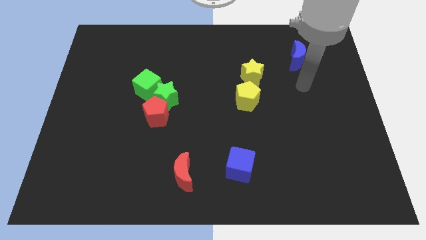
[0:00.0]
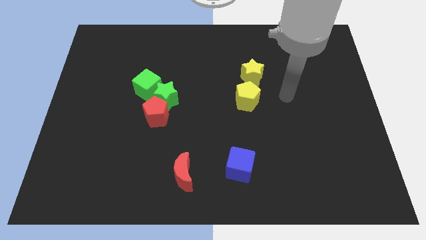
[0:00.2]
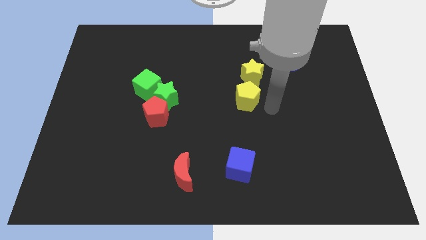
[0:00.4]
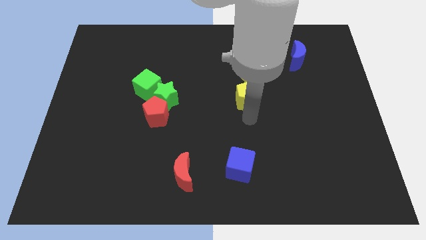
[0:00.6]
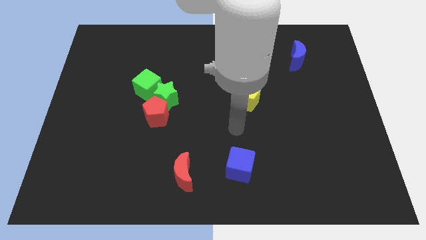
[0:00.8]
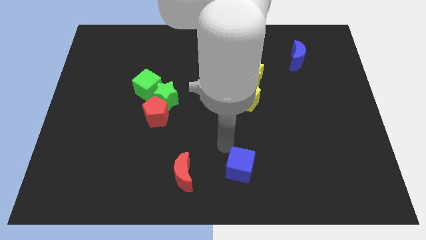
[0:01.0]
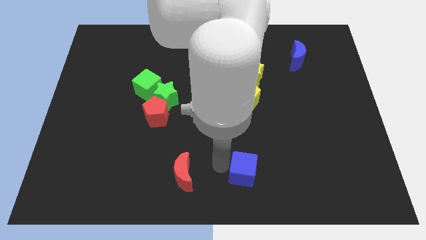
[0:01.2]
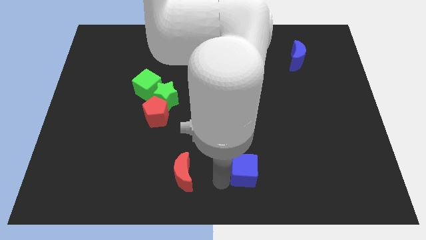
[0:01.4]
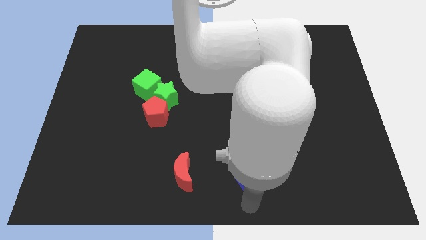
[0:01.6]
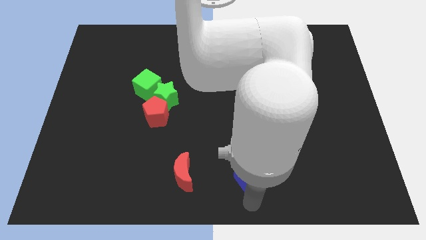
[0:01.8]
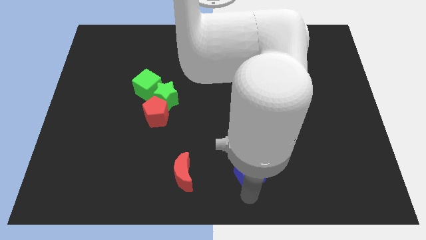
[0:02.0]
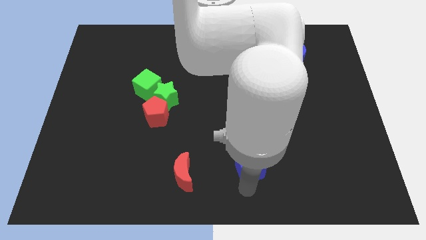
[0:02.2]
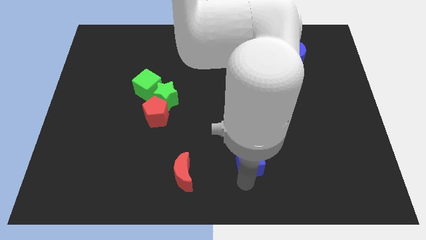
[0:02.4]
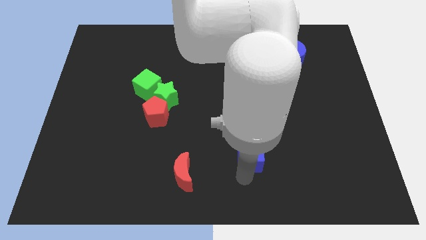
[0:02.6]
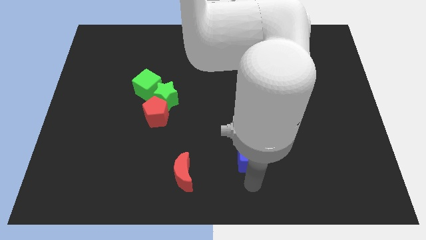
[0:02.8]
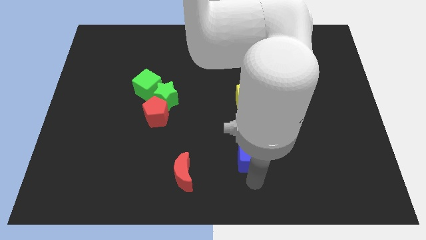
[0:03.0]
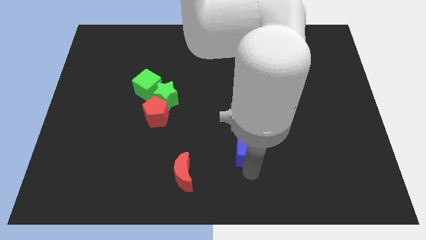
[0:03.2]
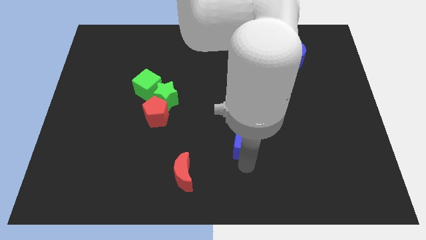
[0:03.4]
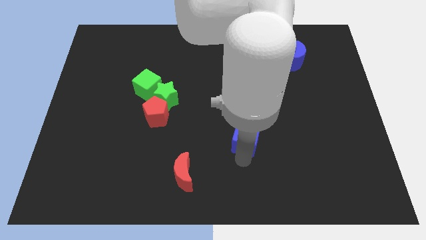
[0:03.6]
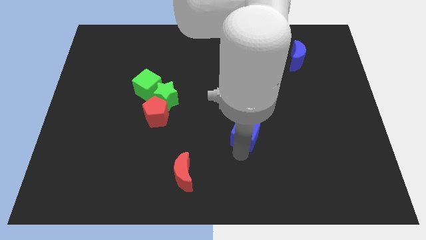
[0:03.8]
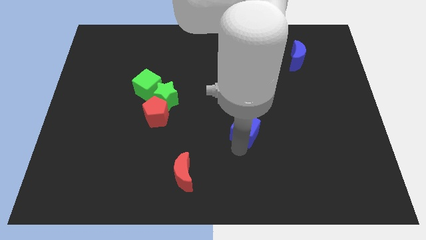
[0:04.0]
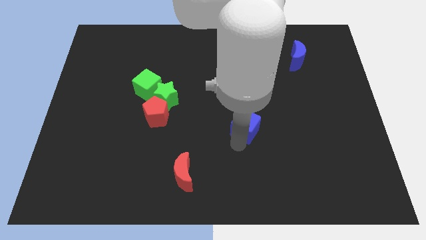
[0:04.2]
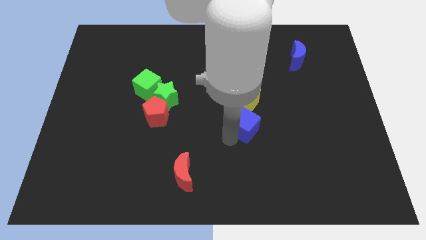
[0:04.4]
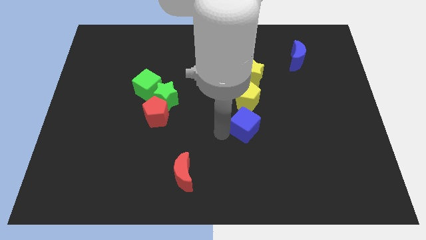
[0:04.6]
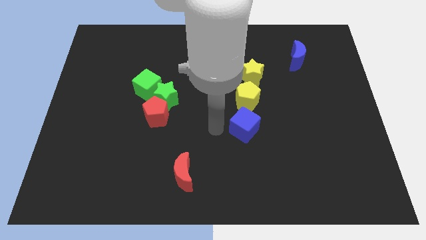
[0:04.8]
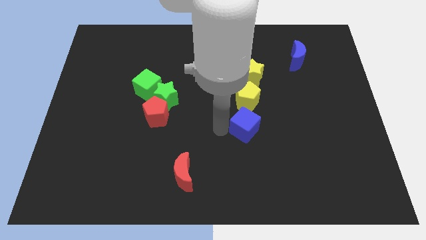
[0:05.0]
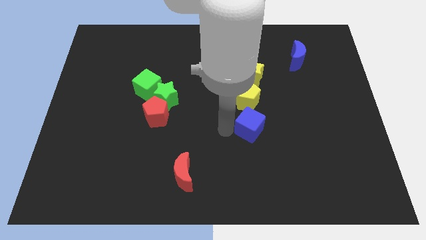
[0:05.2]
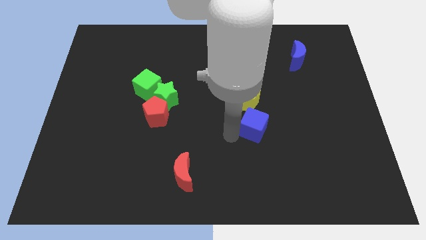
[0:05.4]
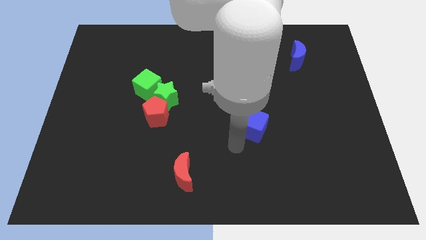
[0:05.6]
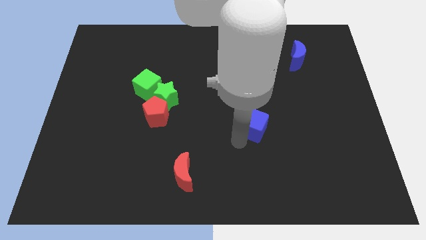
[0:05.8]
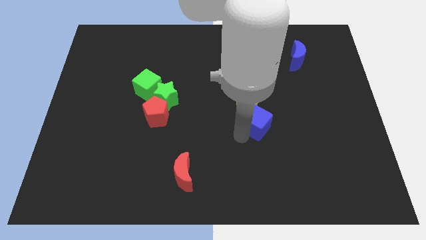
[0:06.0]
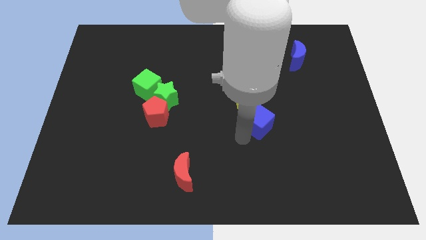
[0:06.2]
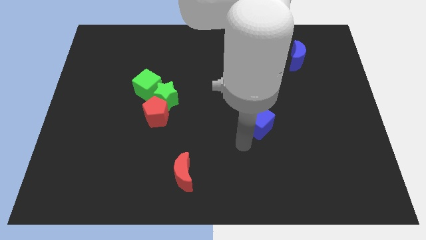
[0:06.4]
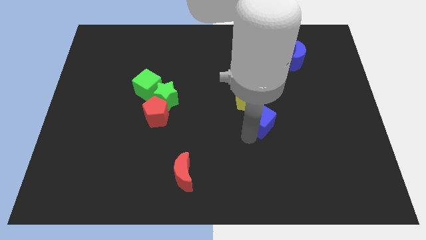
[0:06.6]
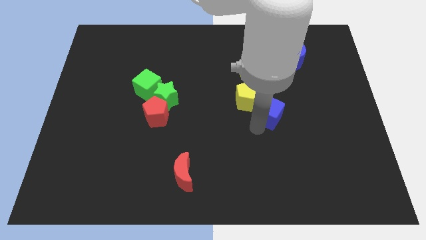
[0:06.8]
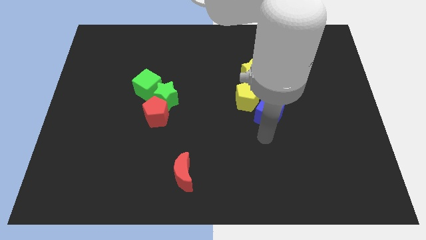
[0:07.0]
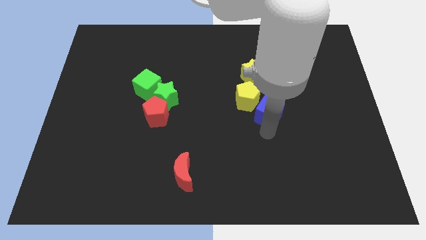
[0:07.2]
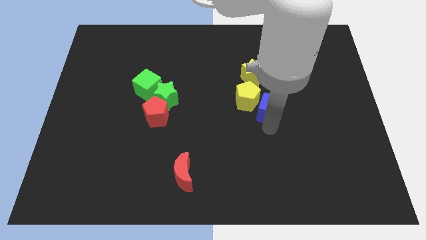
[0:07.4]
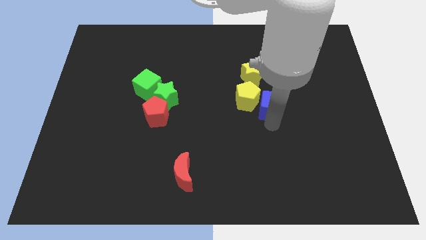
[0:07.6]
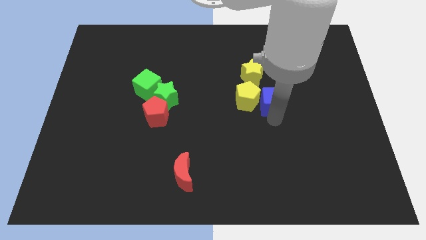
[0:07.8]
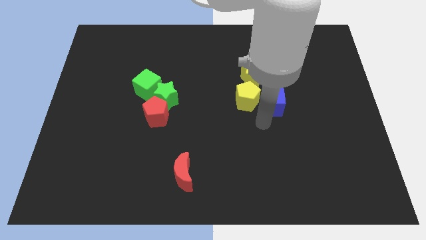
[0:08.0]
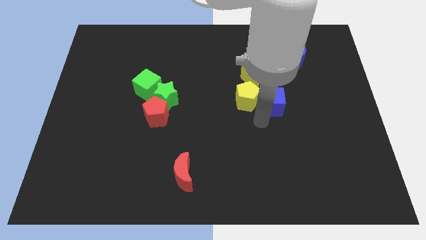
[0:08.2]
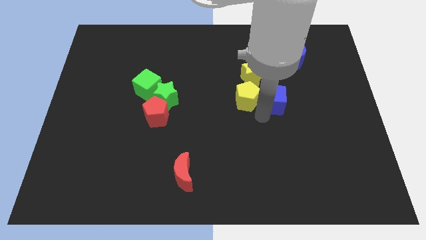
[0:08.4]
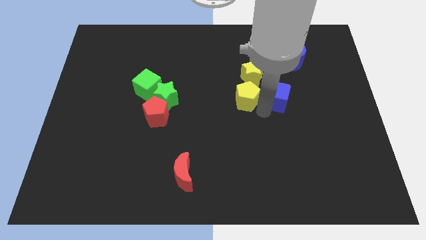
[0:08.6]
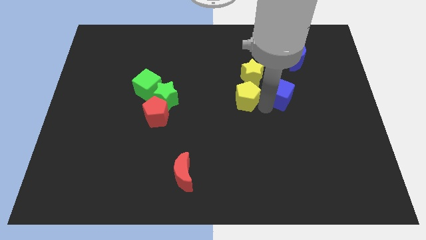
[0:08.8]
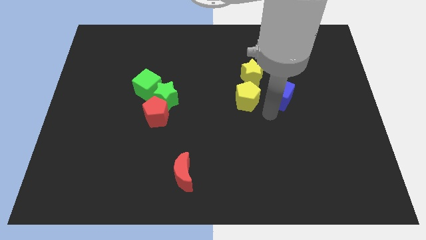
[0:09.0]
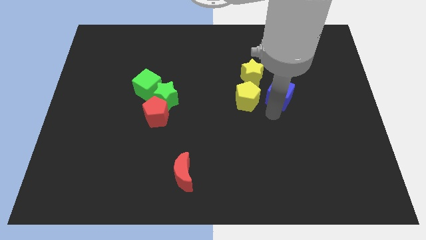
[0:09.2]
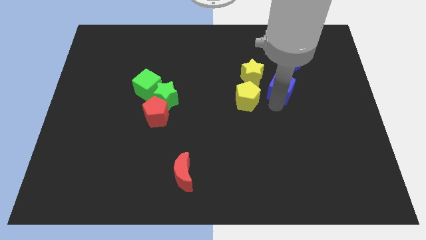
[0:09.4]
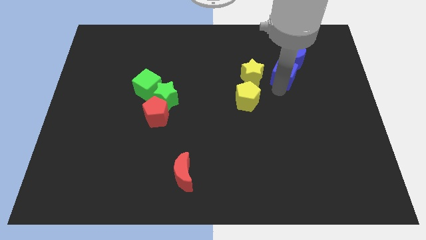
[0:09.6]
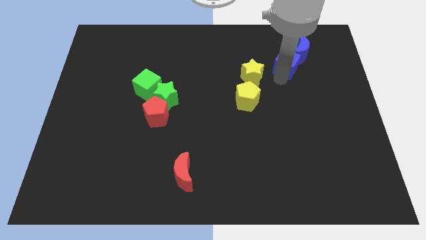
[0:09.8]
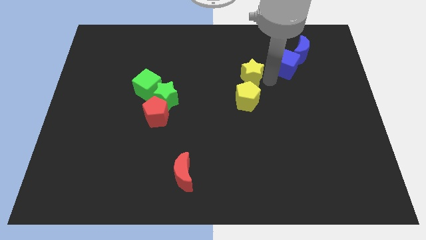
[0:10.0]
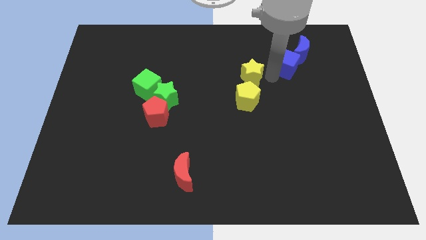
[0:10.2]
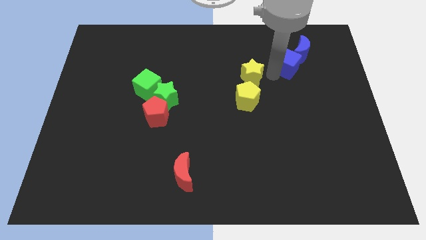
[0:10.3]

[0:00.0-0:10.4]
put the blue cube close to the blue moon

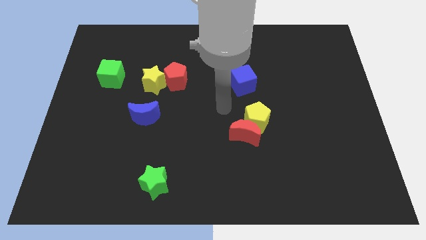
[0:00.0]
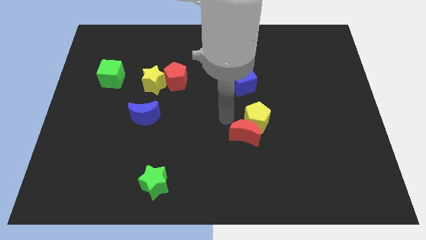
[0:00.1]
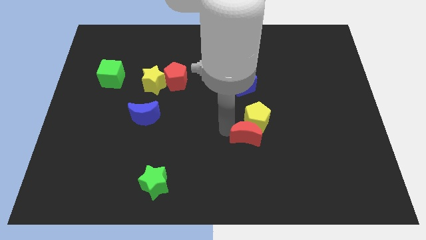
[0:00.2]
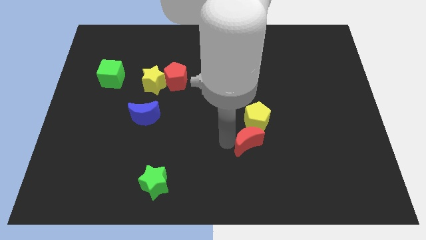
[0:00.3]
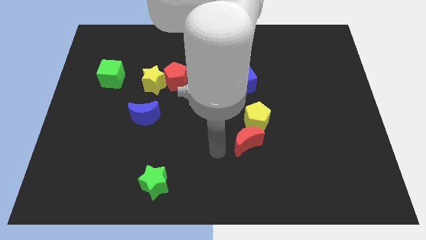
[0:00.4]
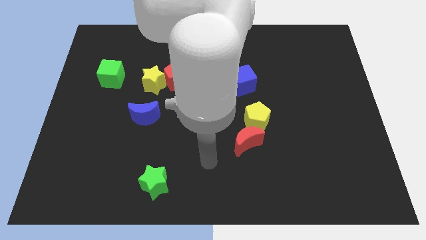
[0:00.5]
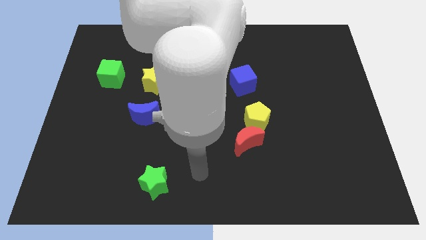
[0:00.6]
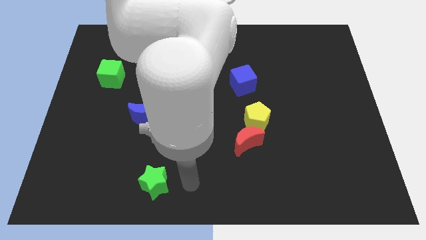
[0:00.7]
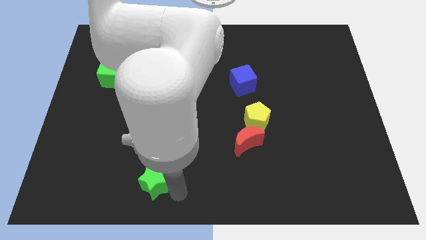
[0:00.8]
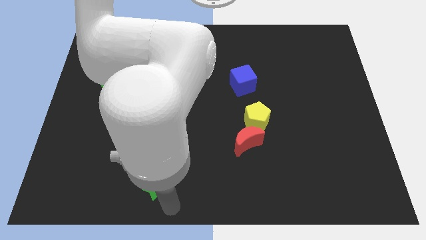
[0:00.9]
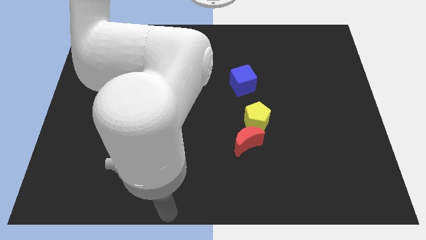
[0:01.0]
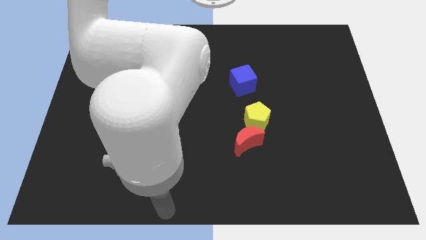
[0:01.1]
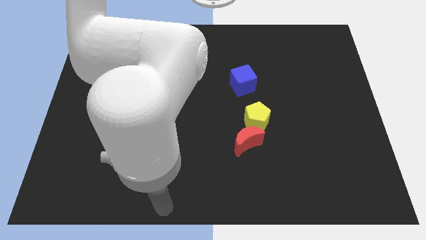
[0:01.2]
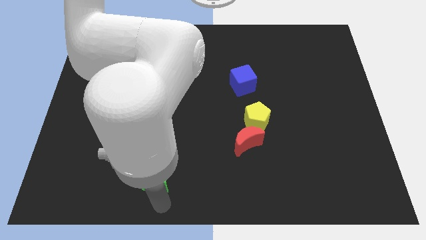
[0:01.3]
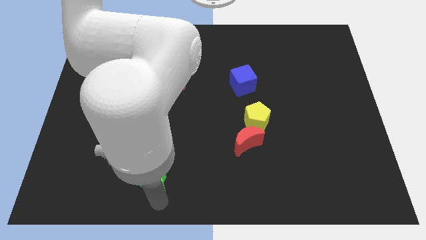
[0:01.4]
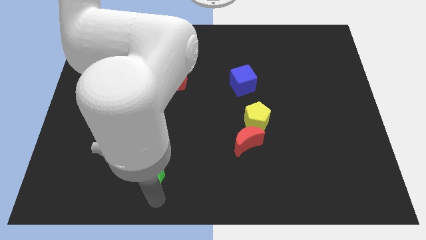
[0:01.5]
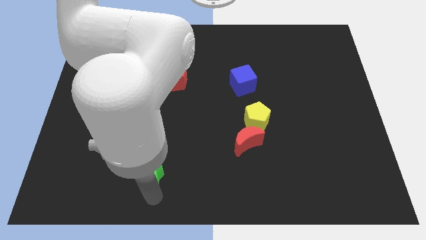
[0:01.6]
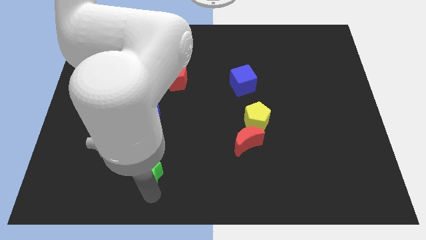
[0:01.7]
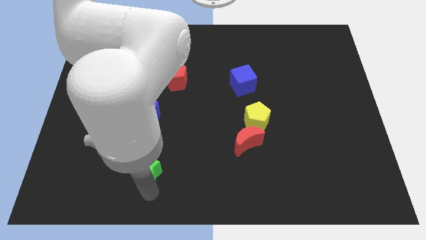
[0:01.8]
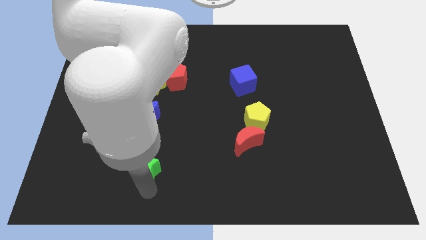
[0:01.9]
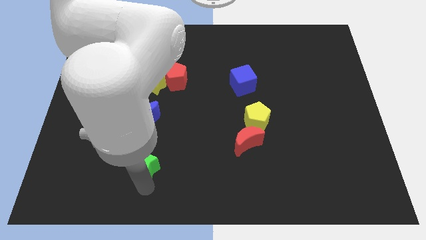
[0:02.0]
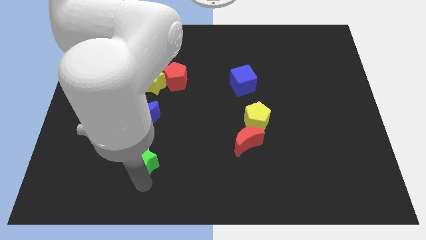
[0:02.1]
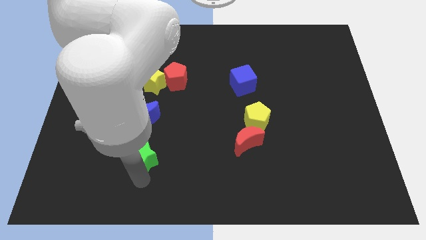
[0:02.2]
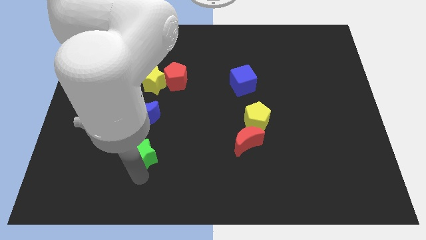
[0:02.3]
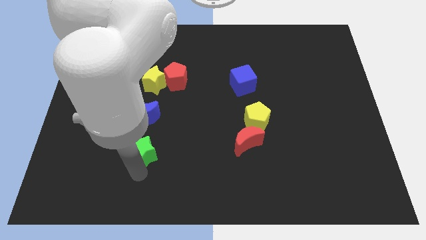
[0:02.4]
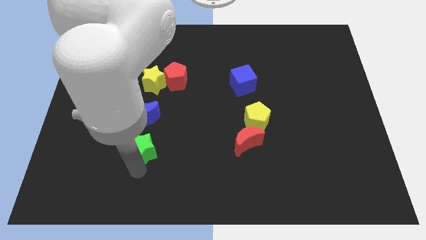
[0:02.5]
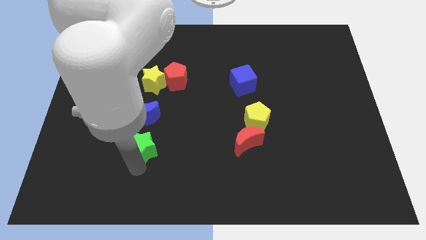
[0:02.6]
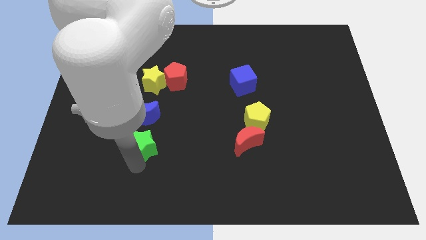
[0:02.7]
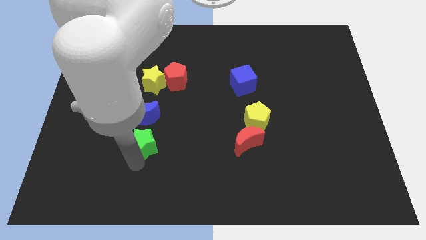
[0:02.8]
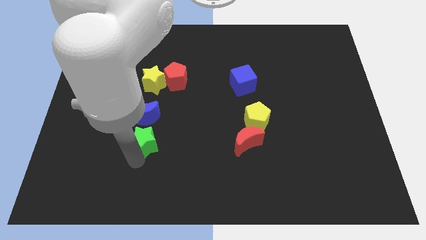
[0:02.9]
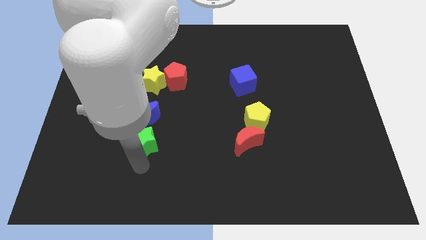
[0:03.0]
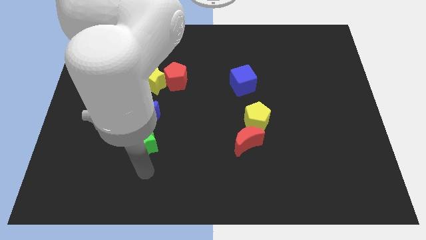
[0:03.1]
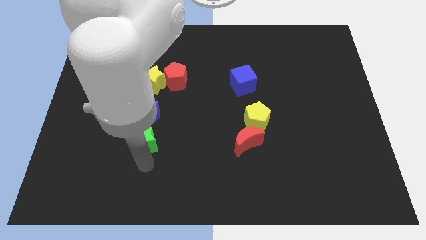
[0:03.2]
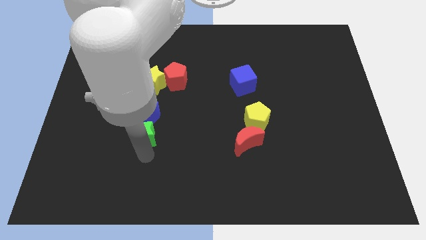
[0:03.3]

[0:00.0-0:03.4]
move the green star to the blue moon
